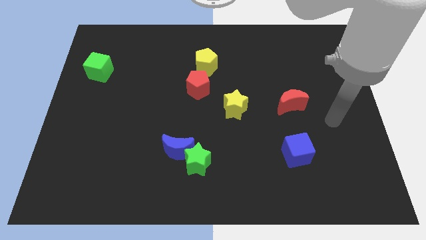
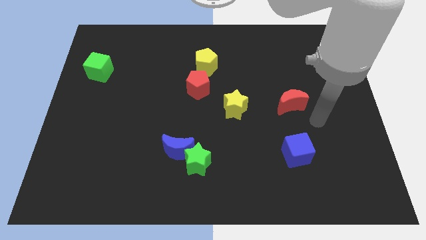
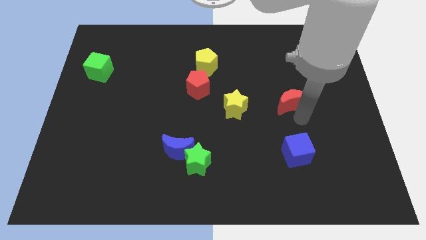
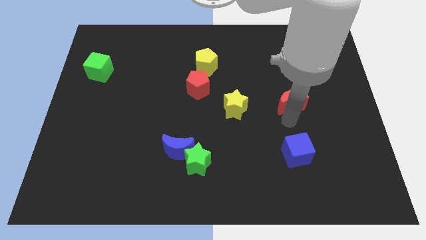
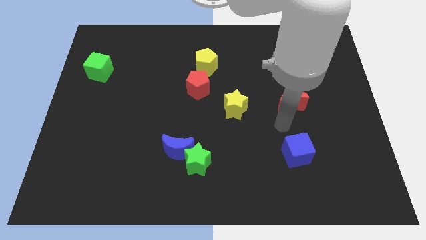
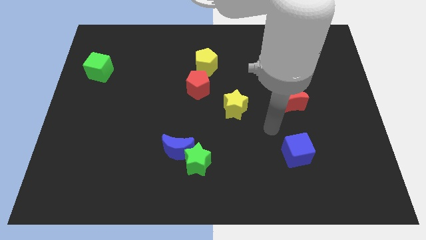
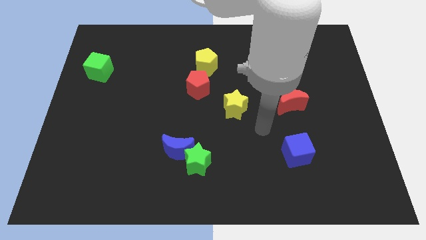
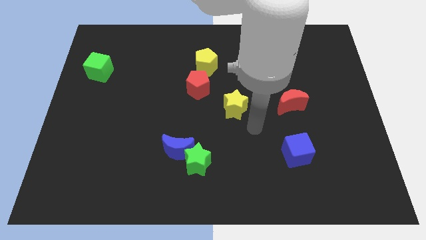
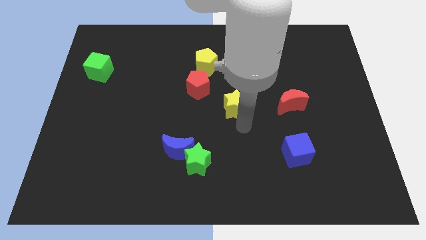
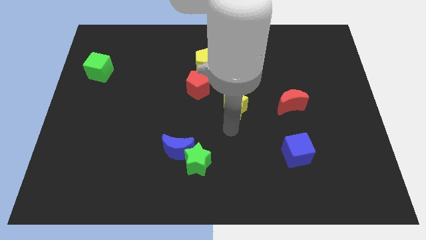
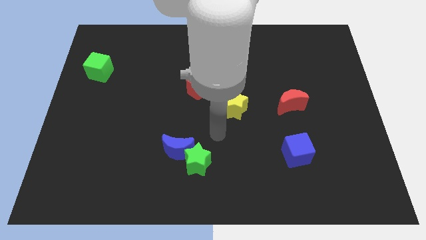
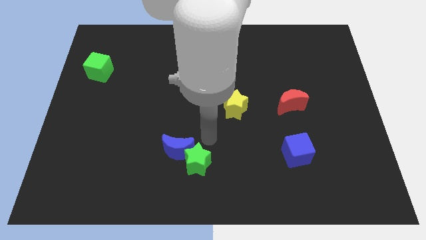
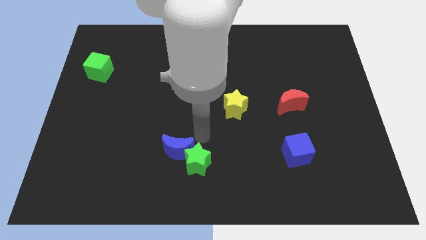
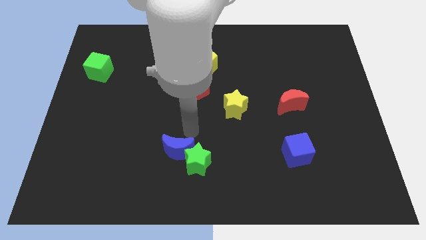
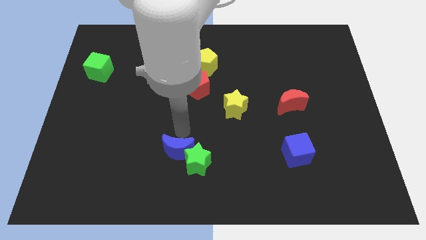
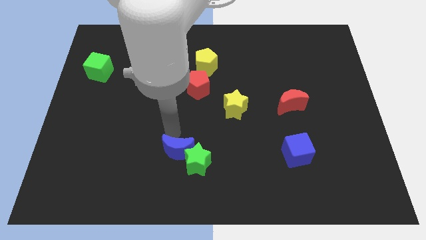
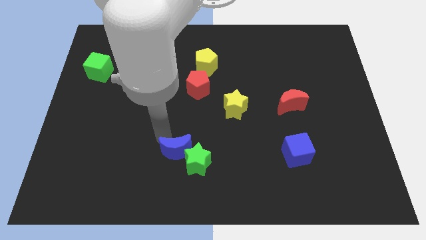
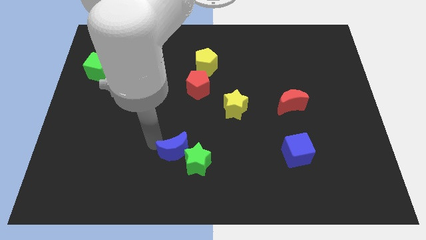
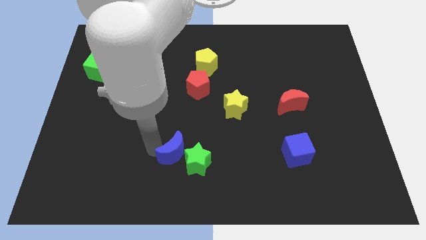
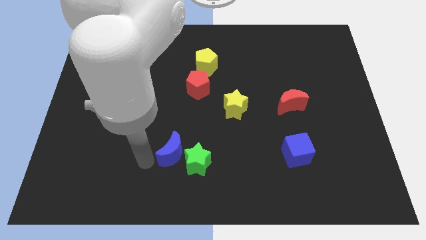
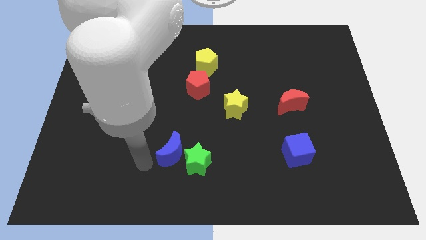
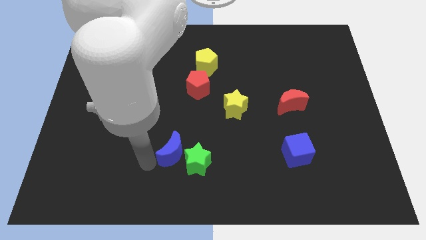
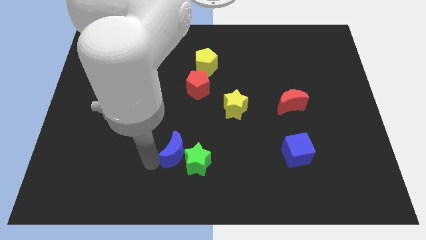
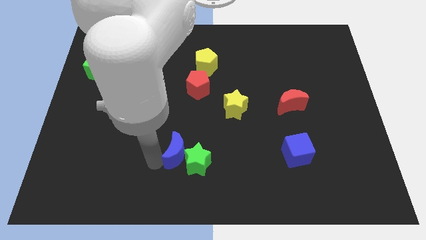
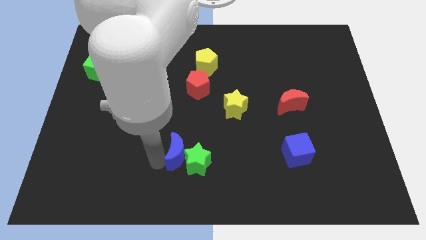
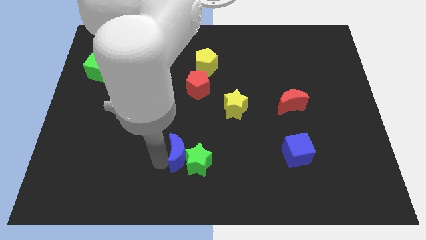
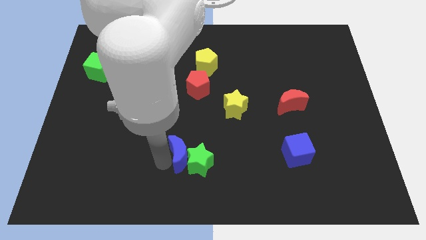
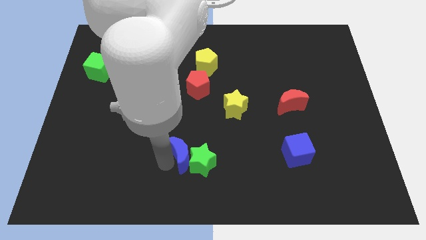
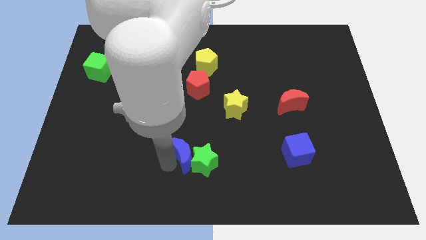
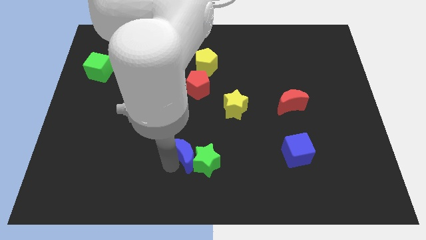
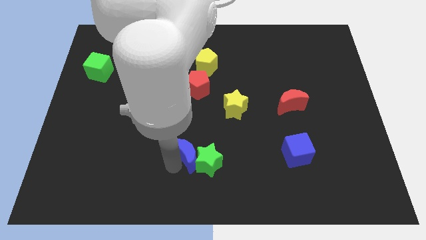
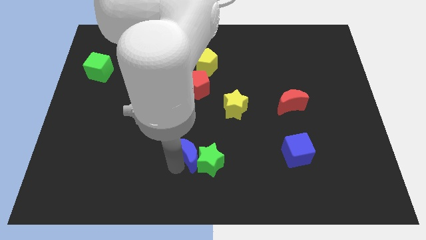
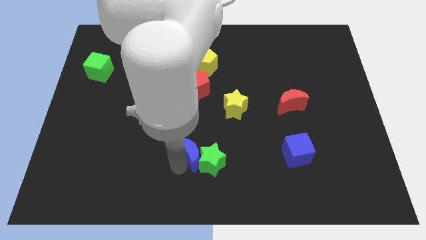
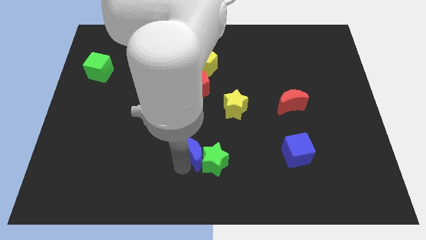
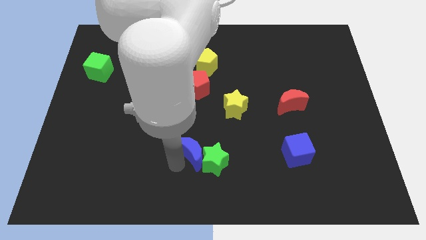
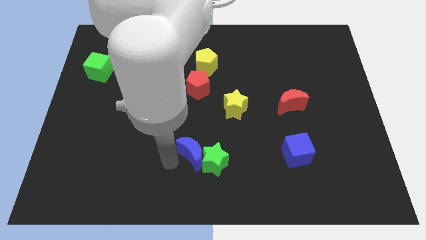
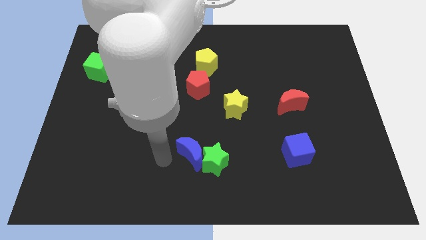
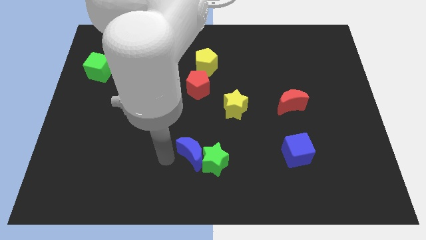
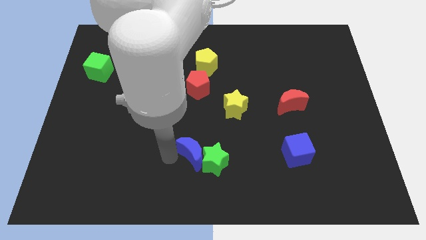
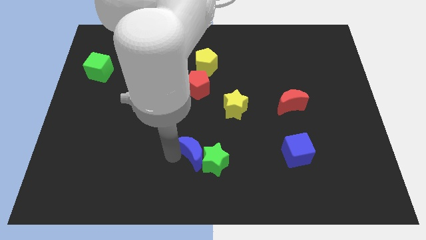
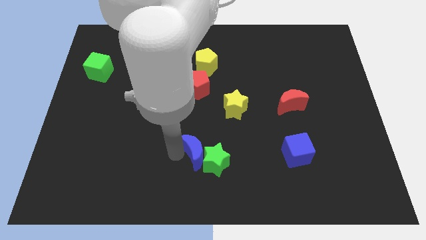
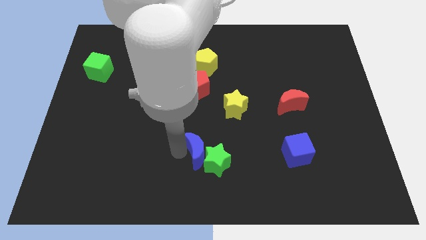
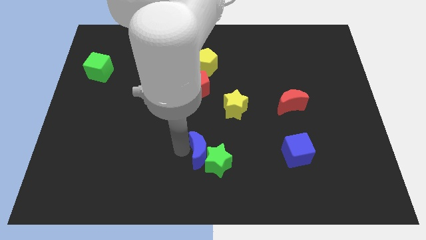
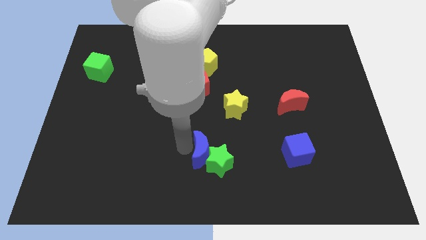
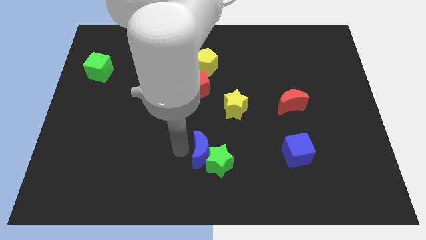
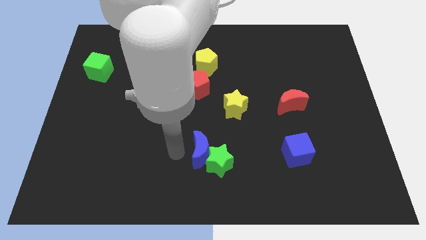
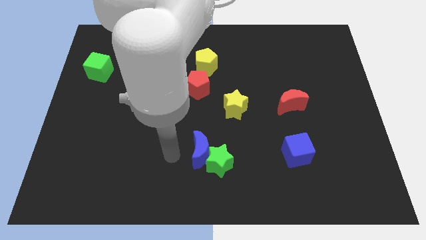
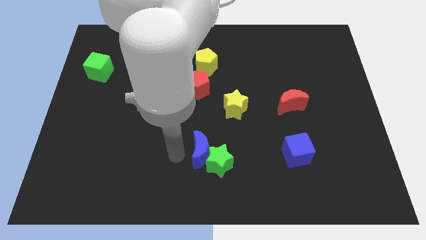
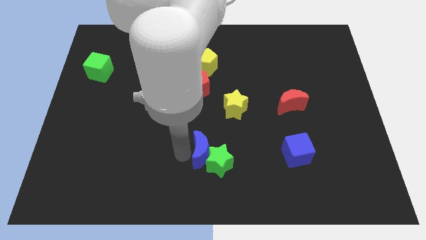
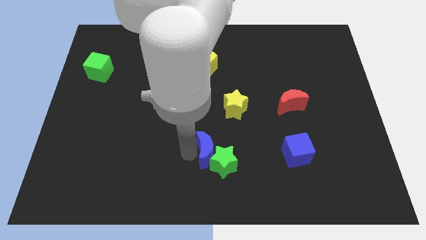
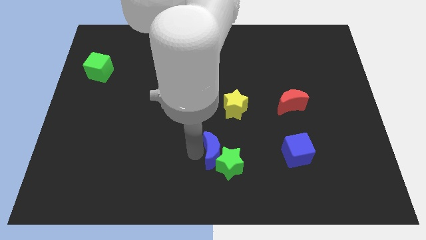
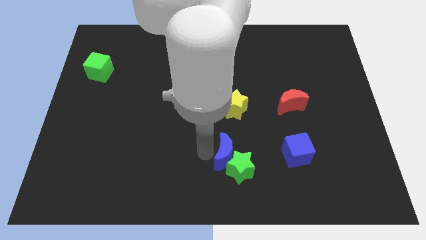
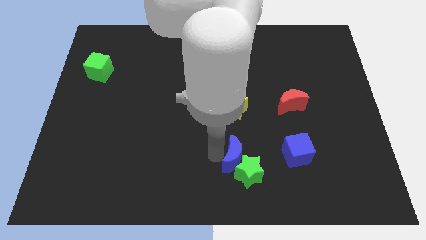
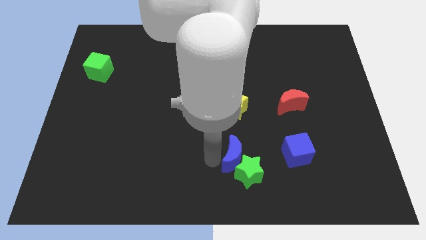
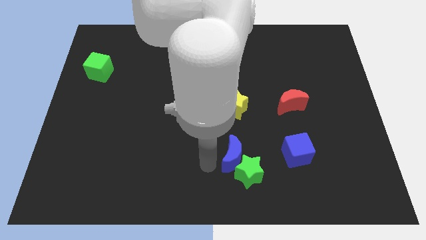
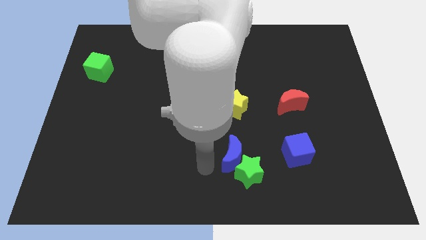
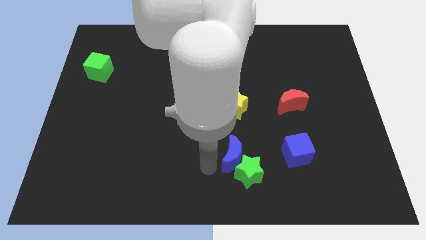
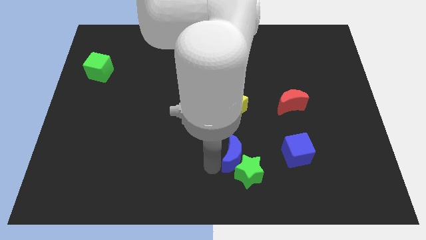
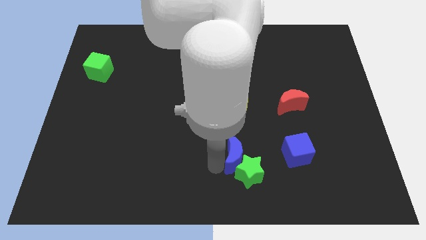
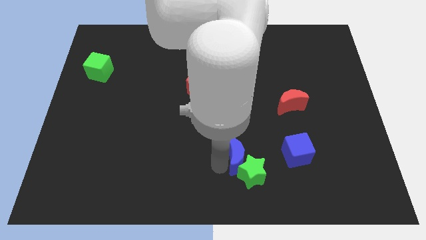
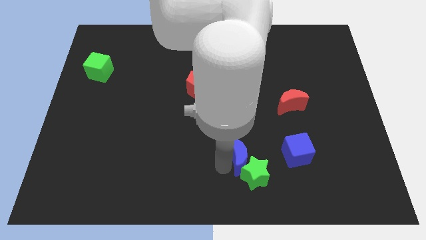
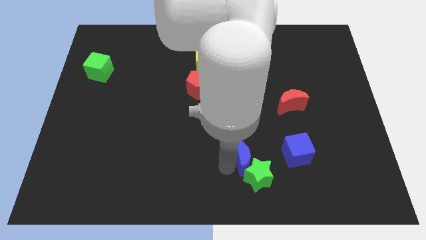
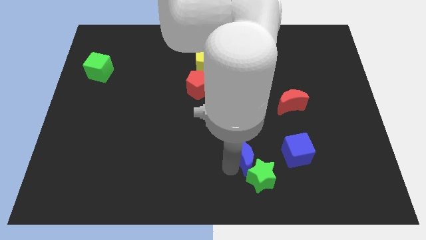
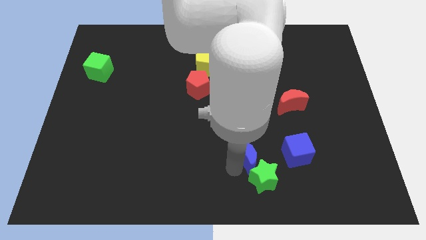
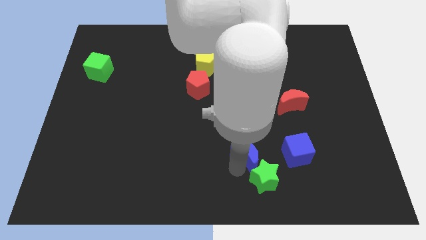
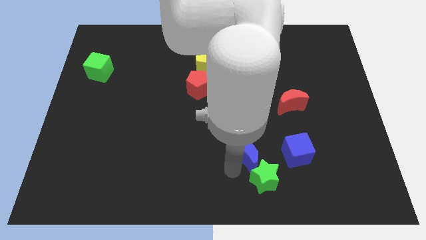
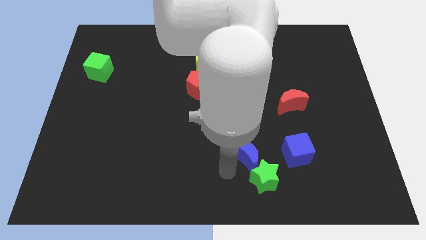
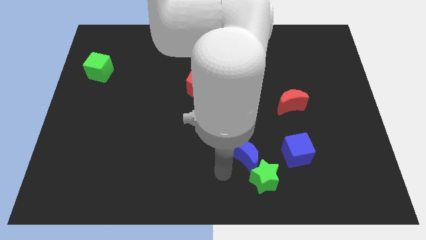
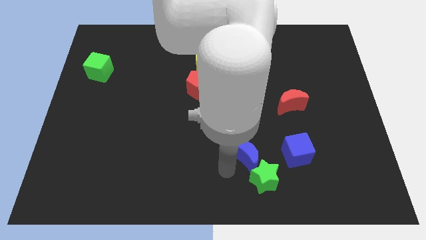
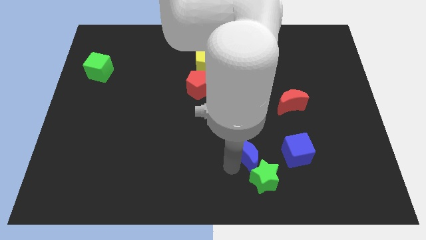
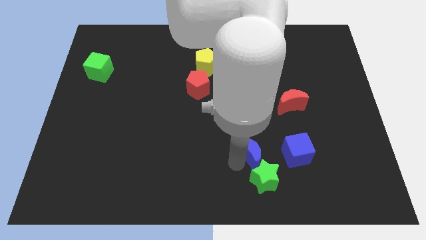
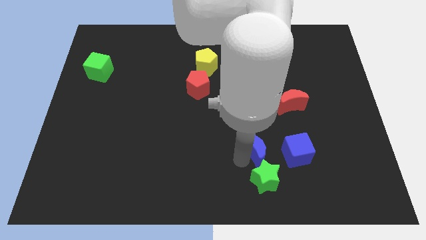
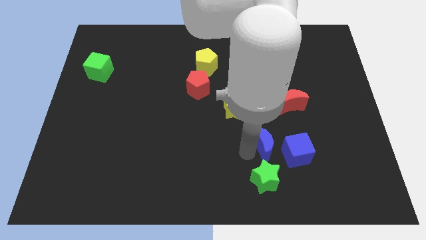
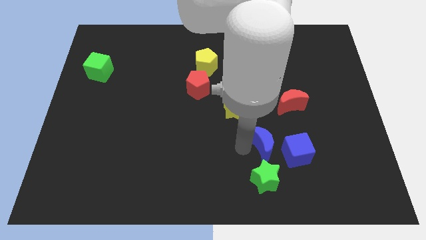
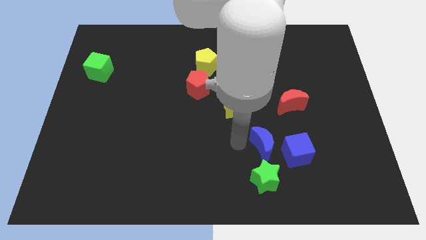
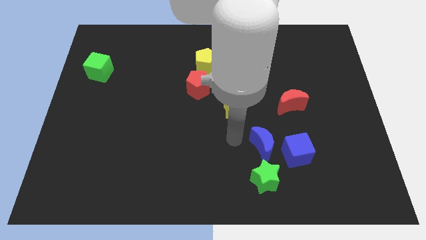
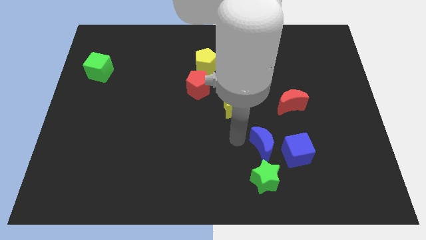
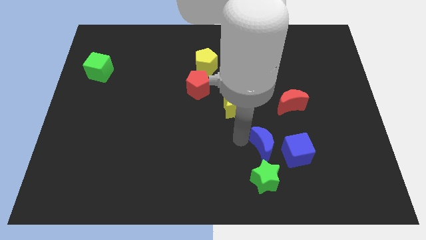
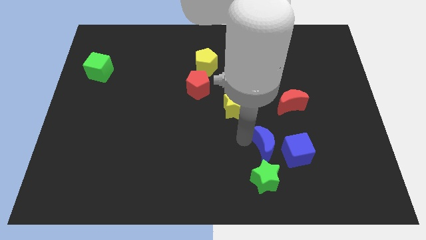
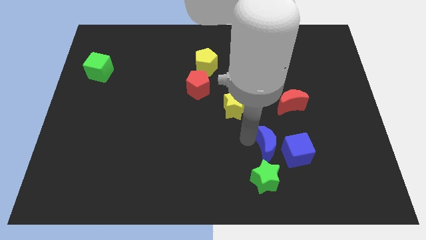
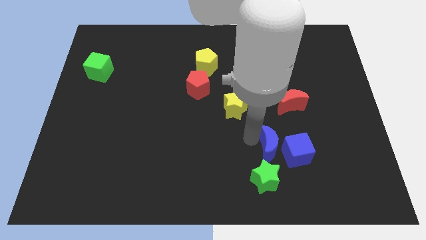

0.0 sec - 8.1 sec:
put the blue moon close to the blue cube
